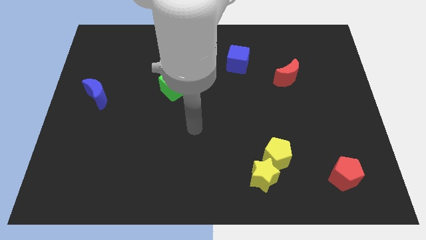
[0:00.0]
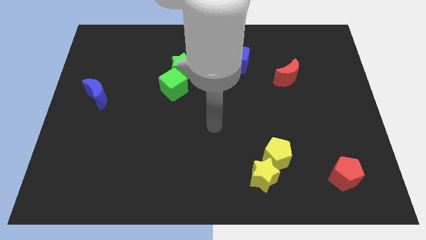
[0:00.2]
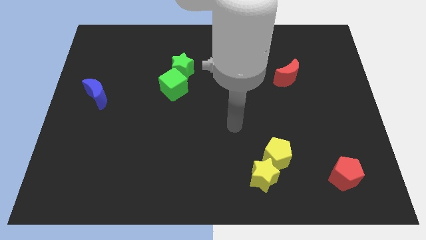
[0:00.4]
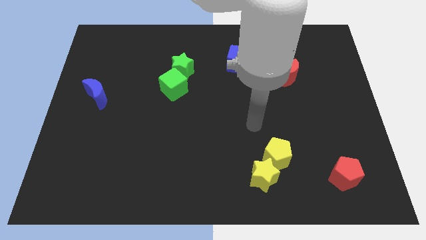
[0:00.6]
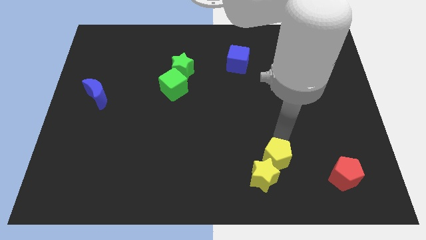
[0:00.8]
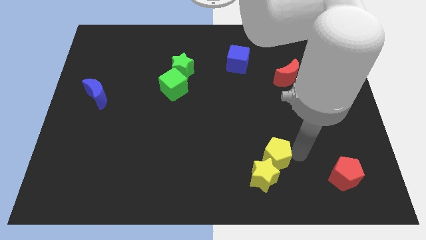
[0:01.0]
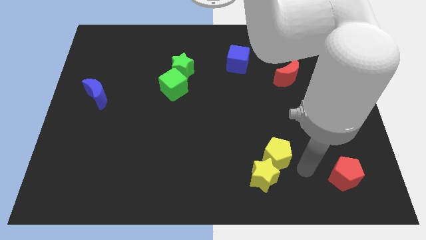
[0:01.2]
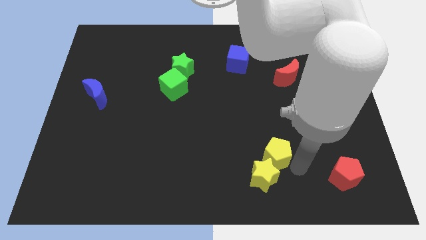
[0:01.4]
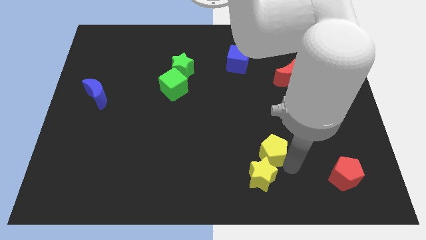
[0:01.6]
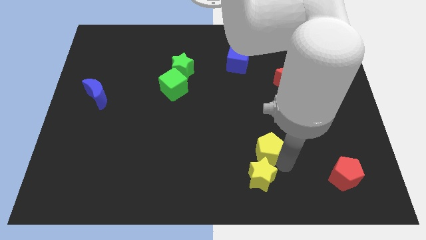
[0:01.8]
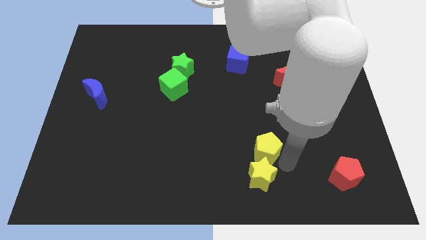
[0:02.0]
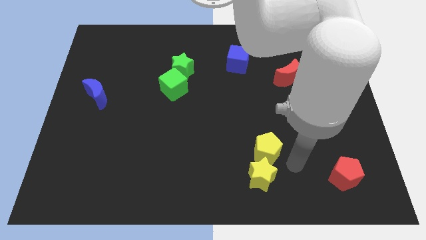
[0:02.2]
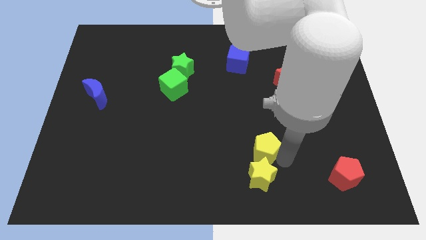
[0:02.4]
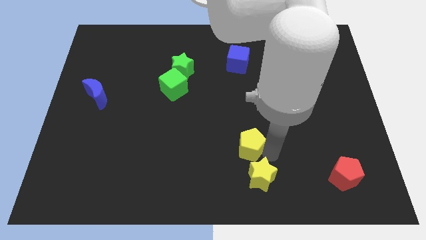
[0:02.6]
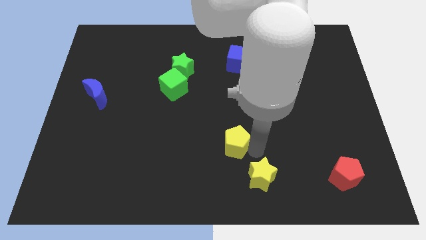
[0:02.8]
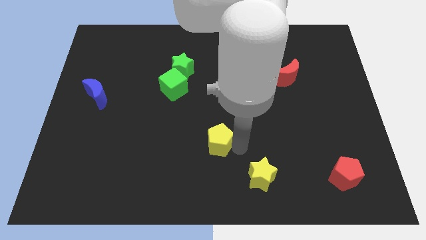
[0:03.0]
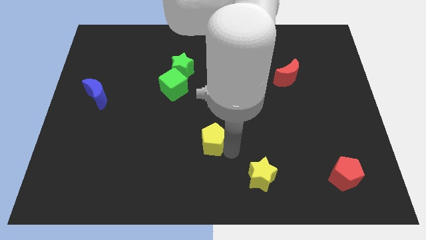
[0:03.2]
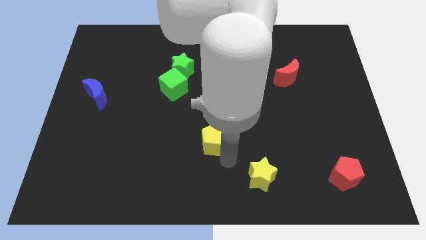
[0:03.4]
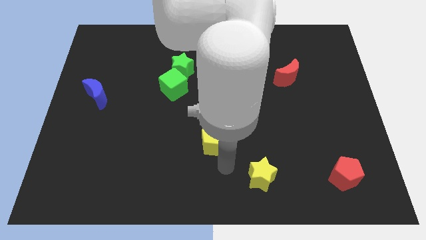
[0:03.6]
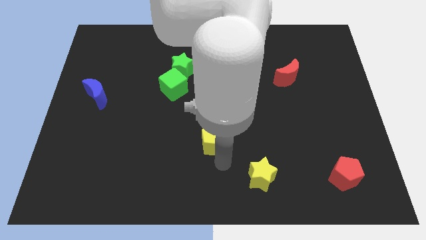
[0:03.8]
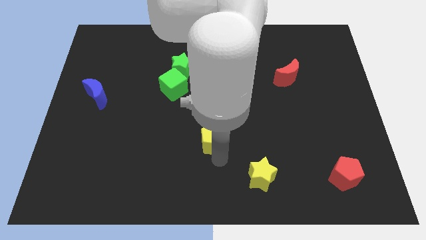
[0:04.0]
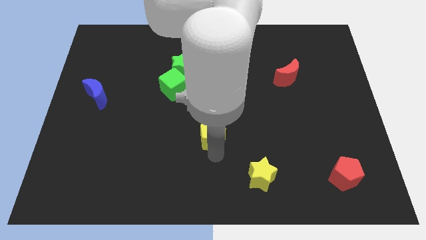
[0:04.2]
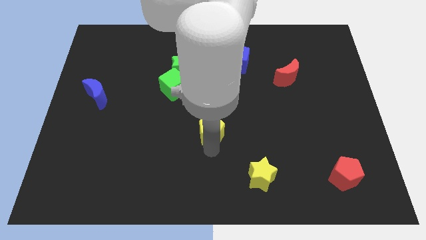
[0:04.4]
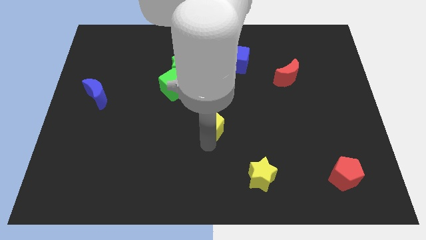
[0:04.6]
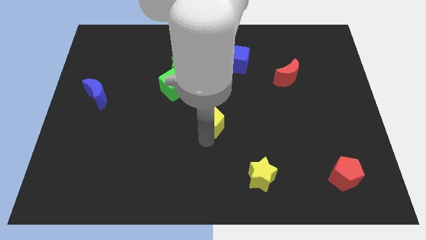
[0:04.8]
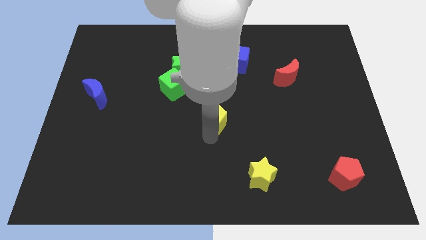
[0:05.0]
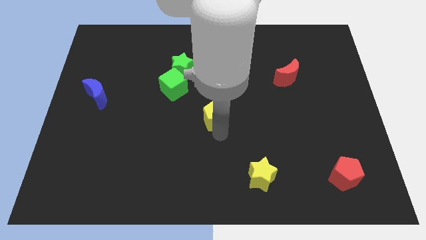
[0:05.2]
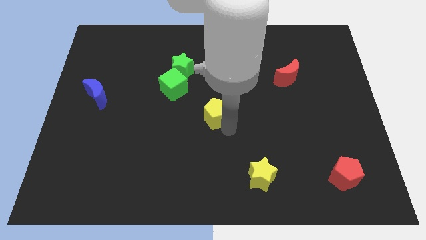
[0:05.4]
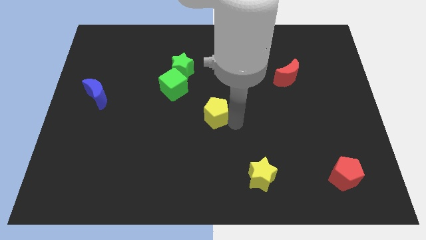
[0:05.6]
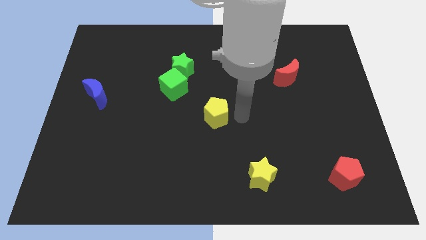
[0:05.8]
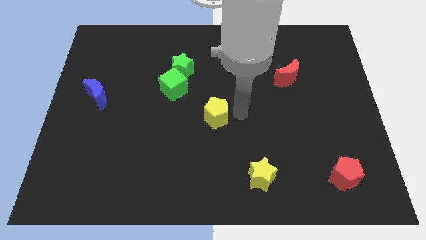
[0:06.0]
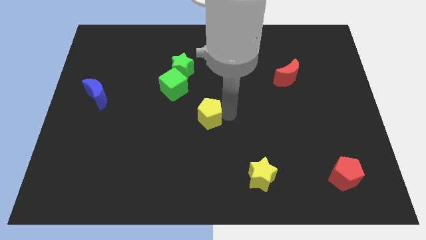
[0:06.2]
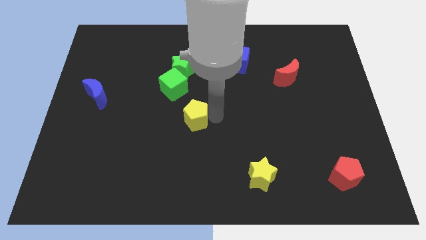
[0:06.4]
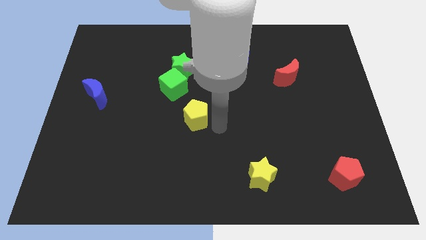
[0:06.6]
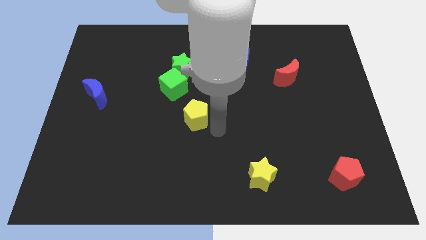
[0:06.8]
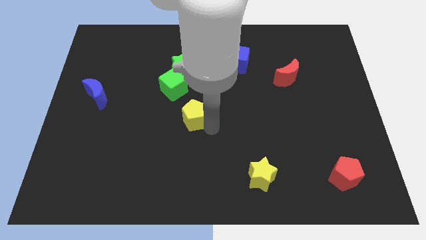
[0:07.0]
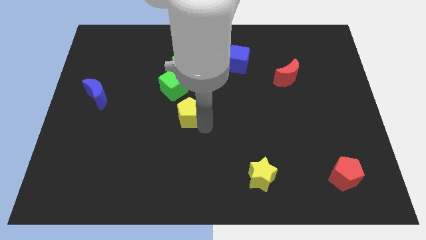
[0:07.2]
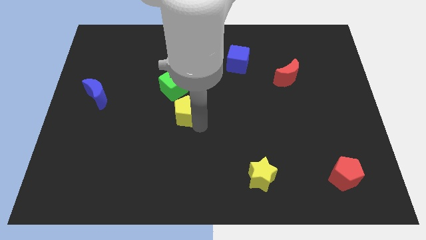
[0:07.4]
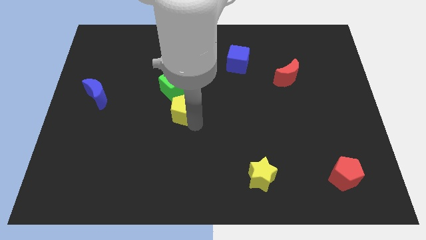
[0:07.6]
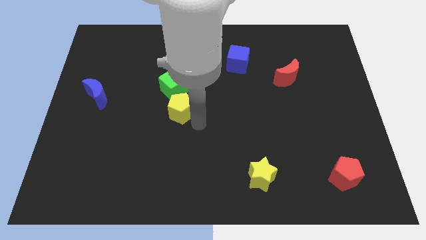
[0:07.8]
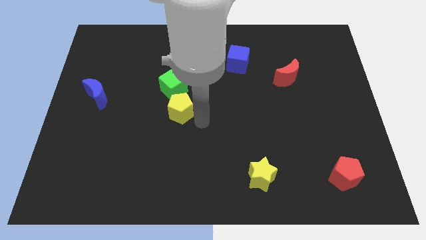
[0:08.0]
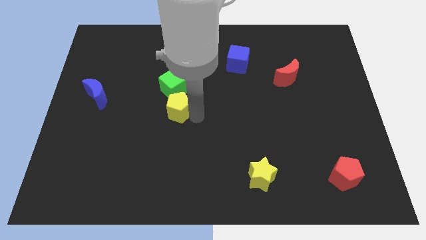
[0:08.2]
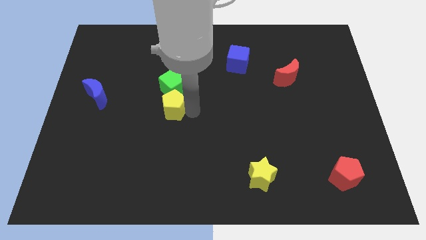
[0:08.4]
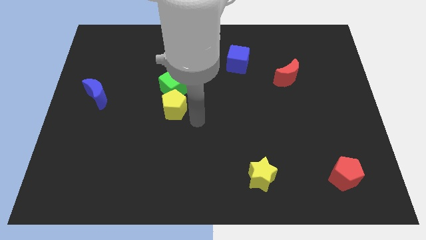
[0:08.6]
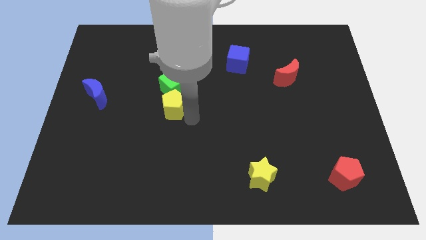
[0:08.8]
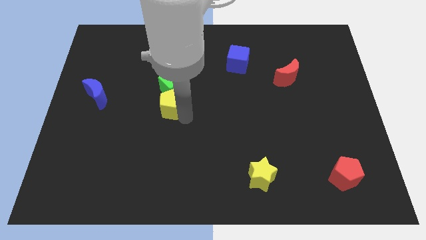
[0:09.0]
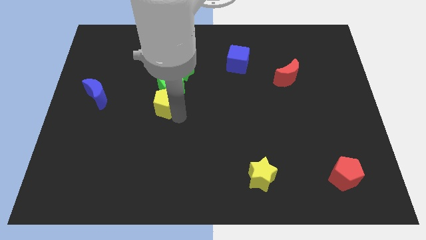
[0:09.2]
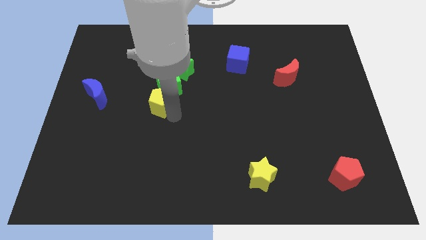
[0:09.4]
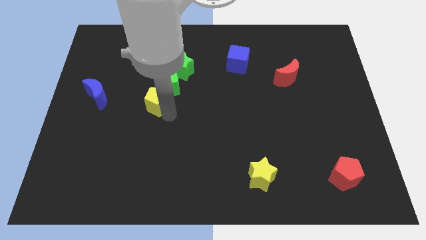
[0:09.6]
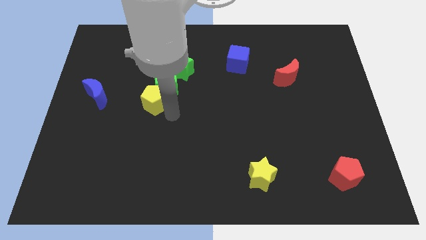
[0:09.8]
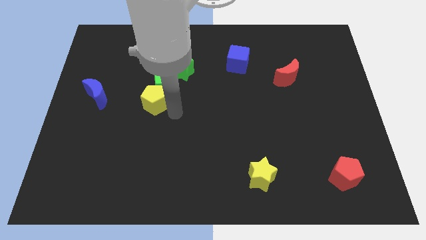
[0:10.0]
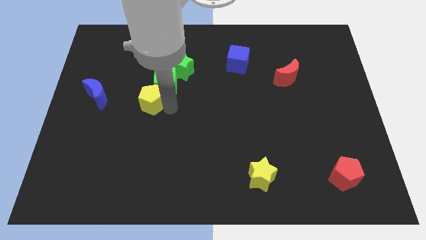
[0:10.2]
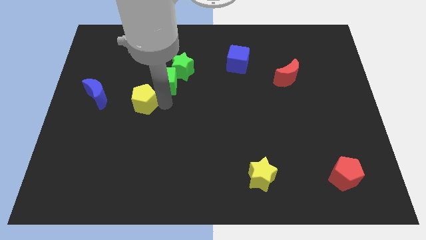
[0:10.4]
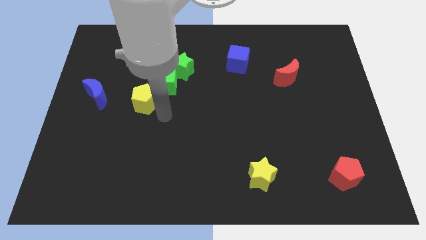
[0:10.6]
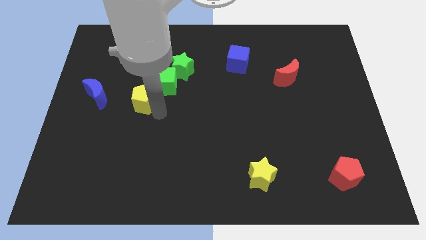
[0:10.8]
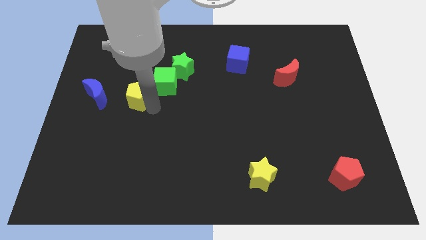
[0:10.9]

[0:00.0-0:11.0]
push the yellow pentagon just left of the green cube

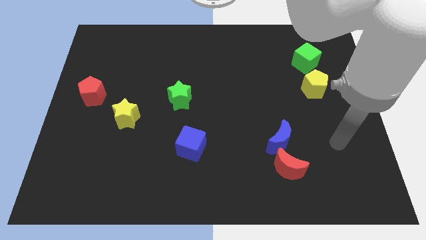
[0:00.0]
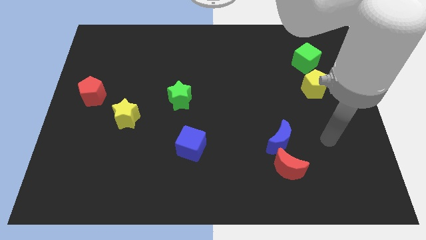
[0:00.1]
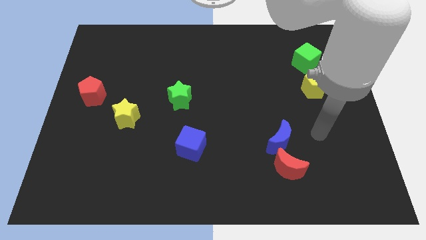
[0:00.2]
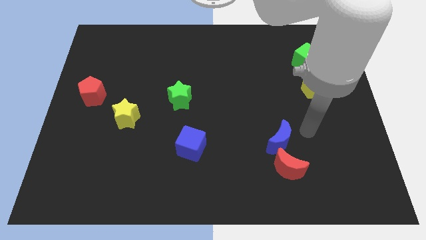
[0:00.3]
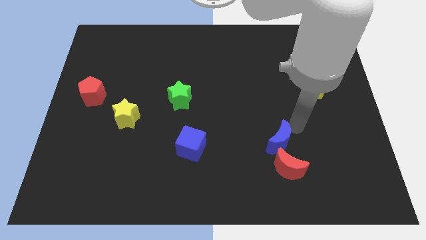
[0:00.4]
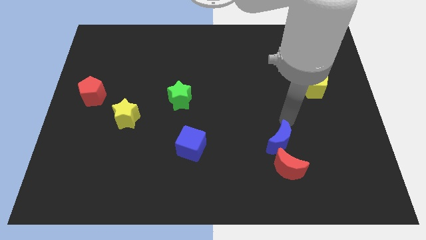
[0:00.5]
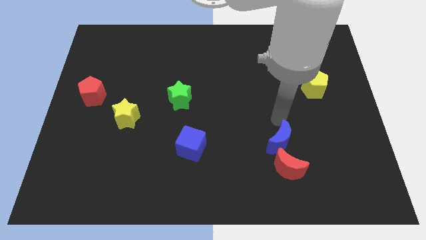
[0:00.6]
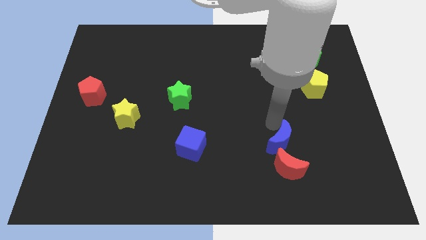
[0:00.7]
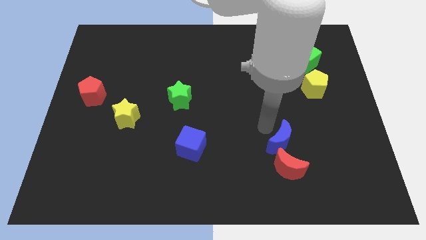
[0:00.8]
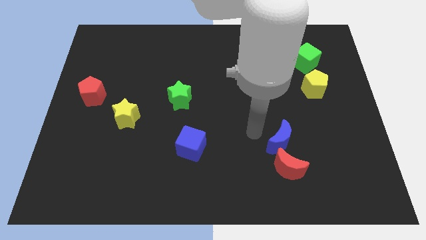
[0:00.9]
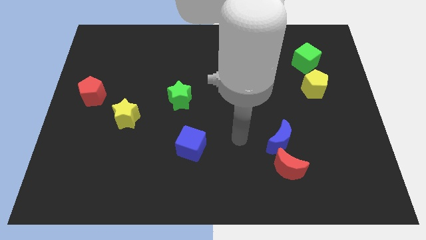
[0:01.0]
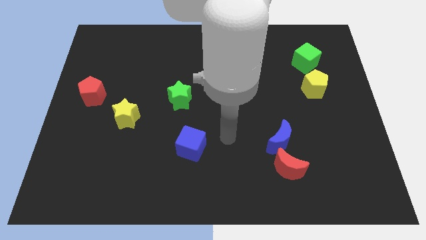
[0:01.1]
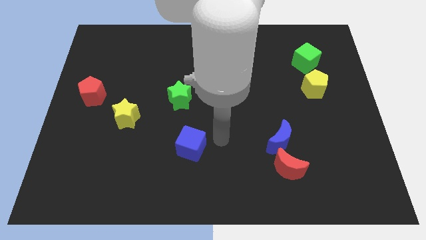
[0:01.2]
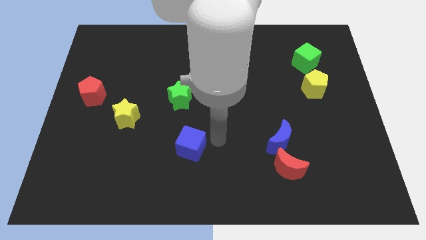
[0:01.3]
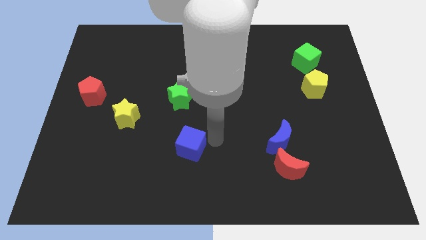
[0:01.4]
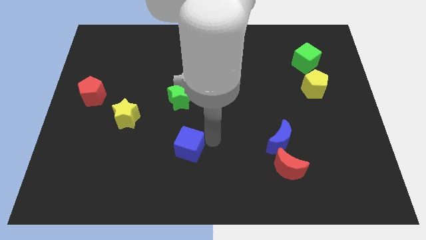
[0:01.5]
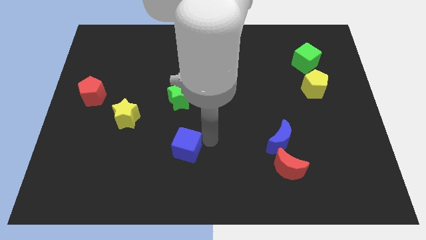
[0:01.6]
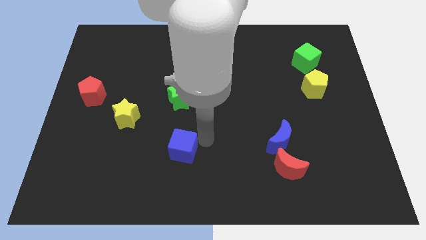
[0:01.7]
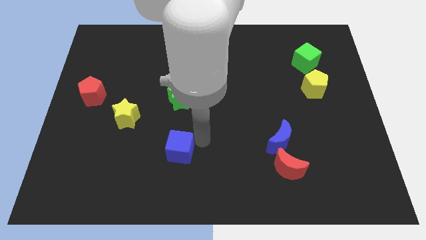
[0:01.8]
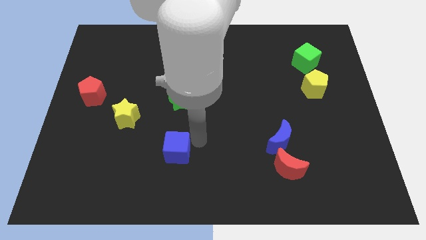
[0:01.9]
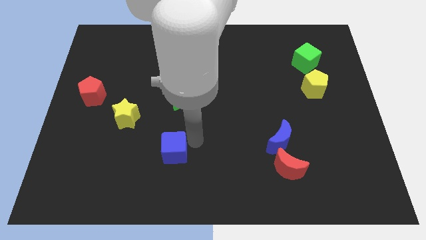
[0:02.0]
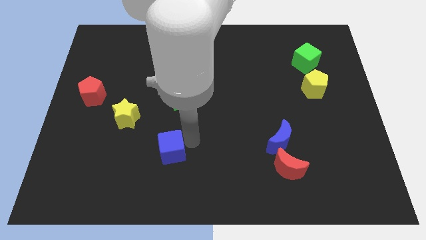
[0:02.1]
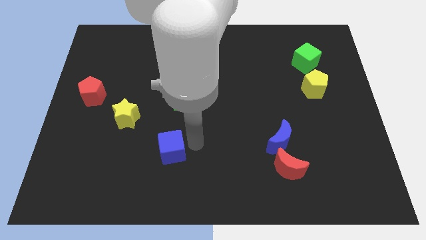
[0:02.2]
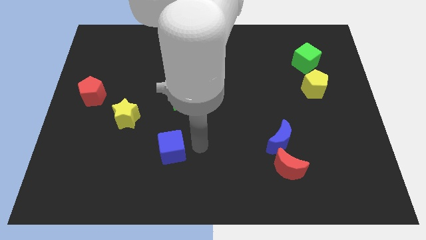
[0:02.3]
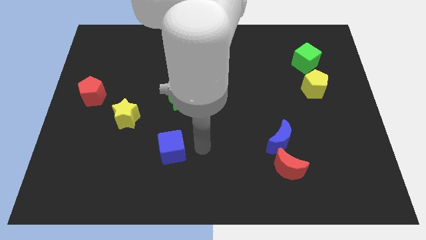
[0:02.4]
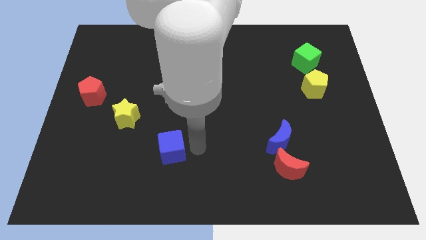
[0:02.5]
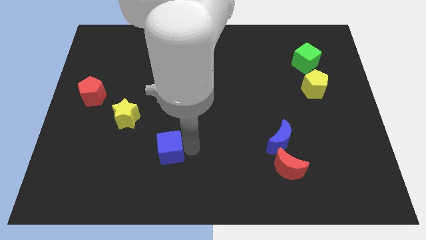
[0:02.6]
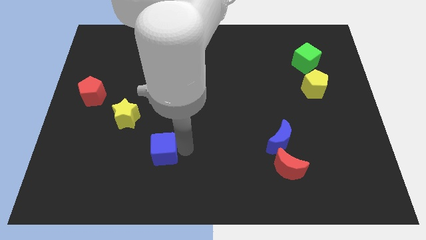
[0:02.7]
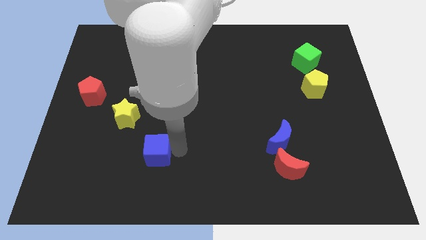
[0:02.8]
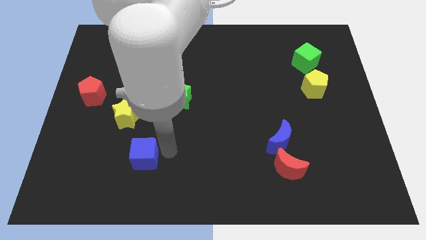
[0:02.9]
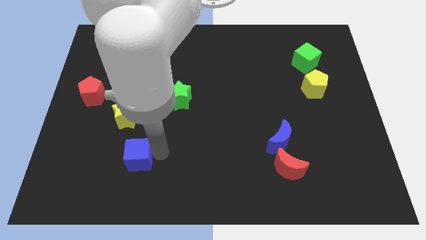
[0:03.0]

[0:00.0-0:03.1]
put the blue cube to the bottom of the yellow star
